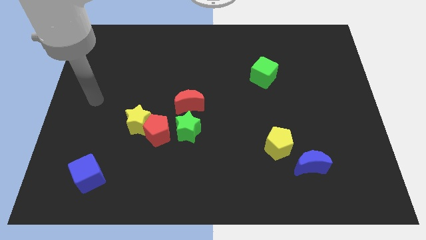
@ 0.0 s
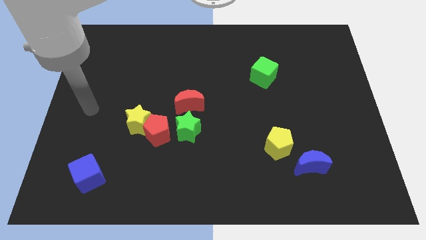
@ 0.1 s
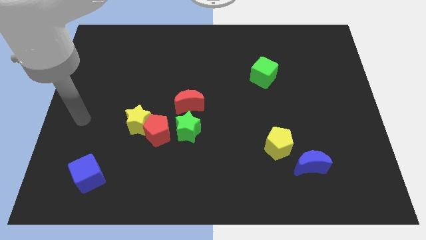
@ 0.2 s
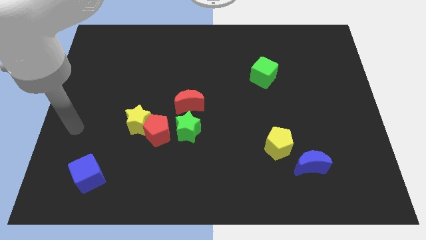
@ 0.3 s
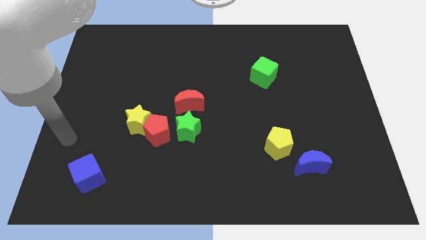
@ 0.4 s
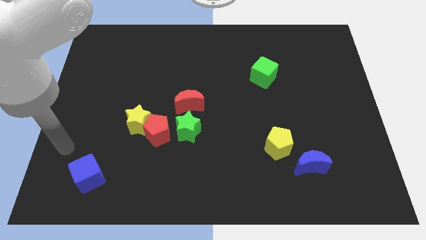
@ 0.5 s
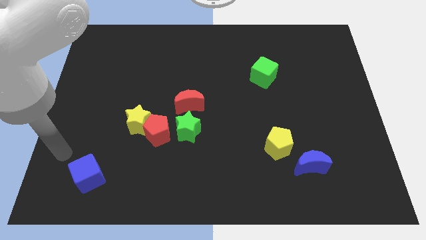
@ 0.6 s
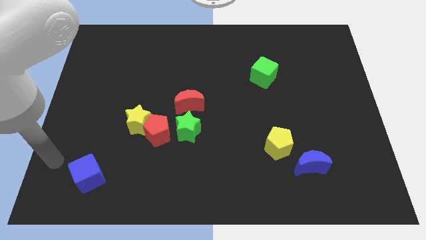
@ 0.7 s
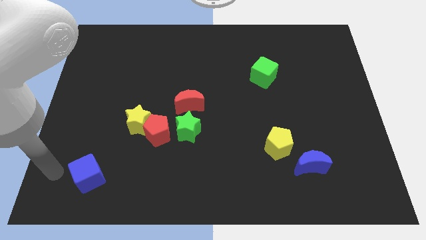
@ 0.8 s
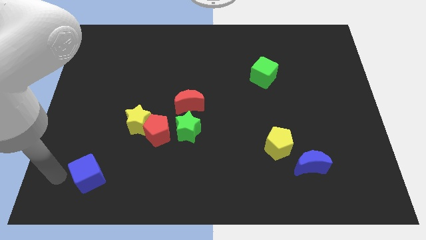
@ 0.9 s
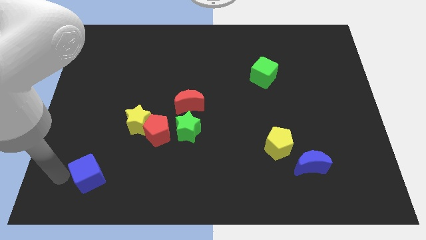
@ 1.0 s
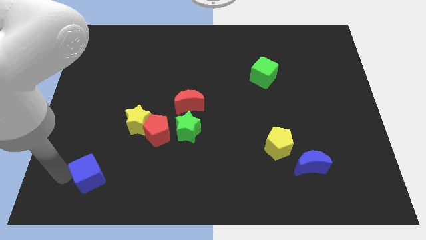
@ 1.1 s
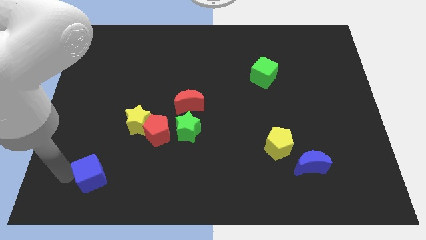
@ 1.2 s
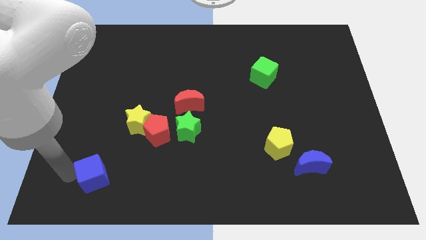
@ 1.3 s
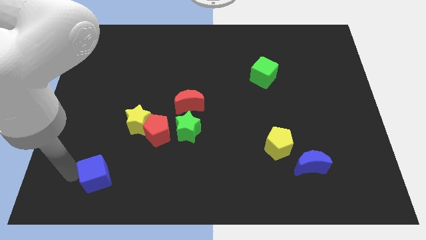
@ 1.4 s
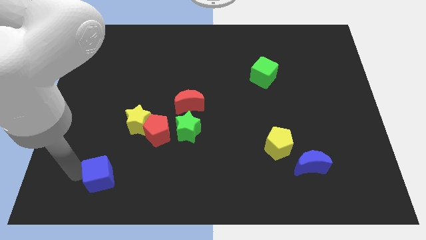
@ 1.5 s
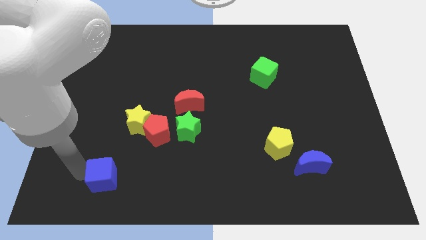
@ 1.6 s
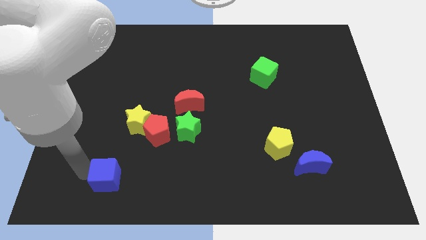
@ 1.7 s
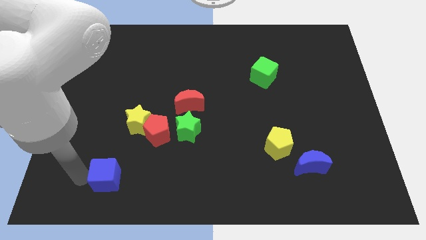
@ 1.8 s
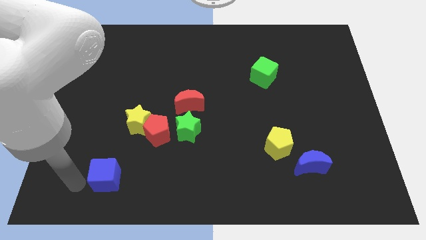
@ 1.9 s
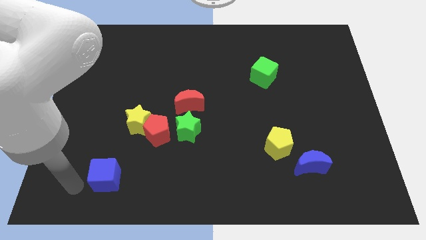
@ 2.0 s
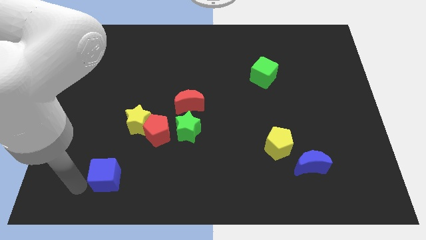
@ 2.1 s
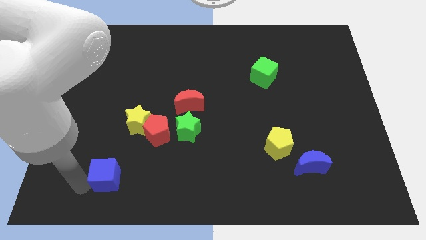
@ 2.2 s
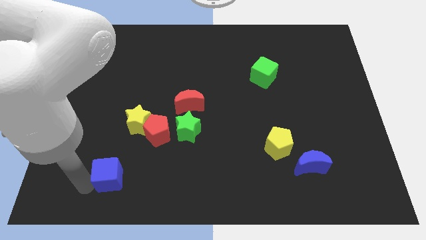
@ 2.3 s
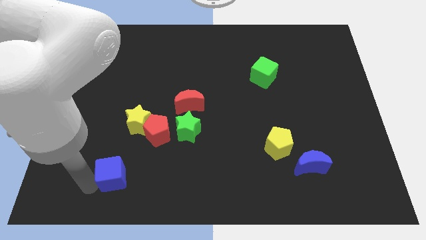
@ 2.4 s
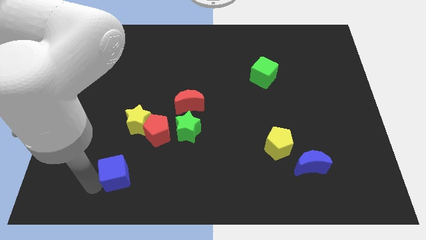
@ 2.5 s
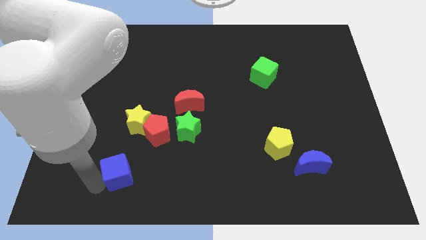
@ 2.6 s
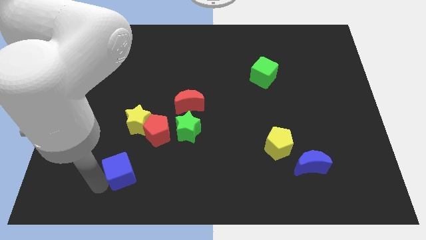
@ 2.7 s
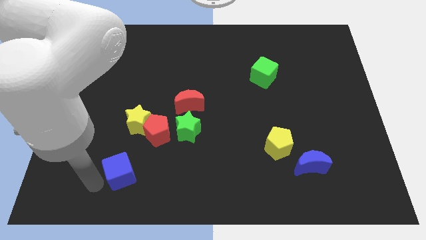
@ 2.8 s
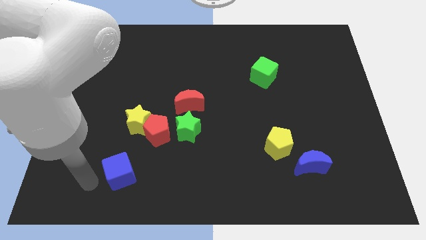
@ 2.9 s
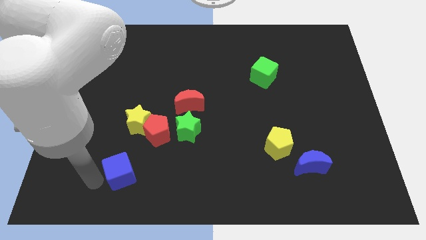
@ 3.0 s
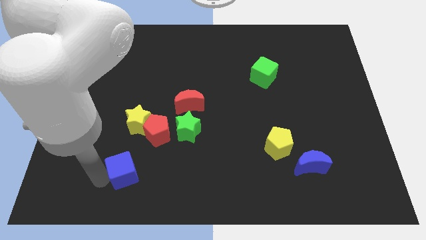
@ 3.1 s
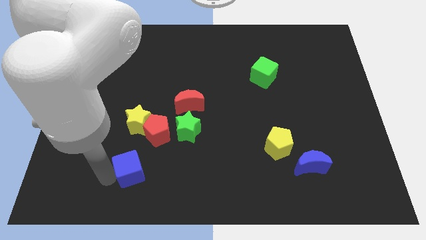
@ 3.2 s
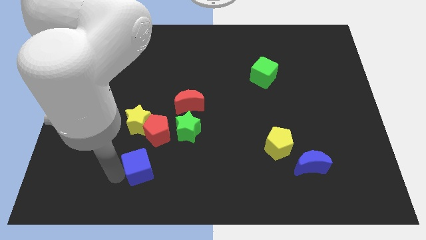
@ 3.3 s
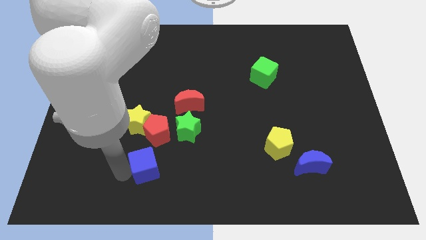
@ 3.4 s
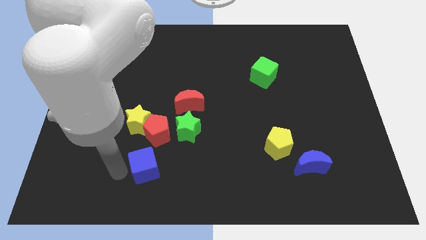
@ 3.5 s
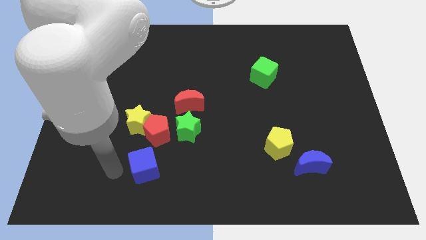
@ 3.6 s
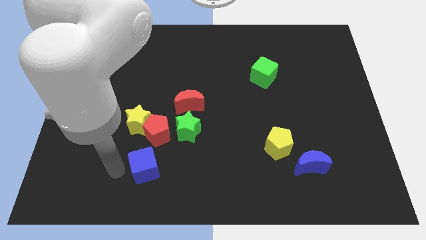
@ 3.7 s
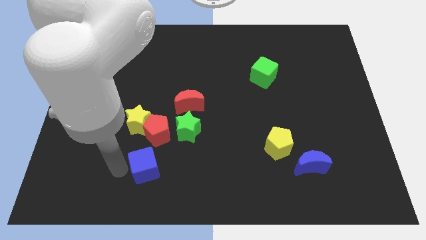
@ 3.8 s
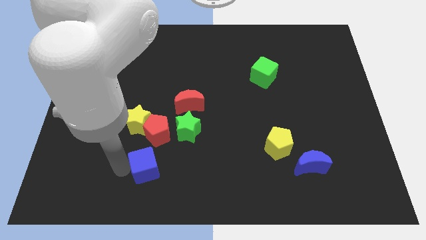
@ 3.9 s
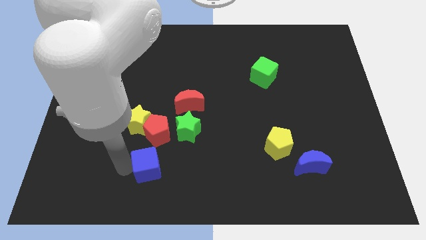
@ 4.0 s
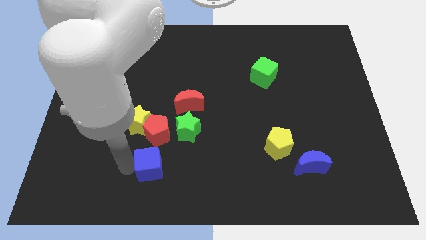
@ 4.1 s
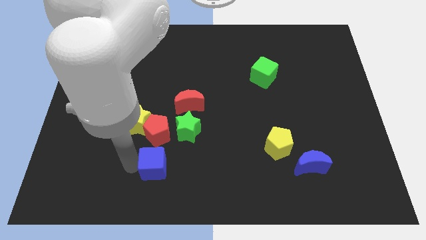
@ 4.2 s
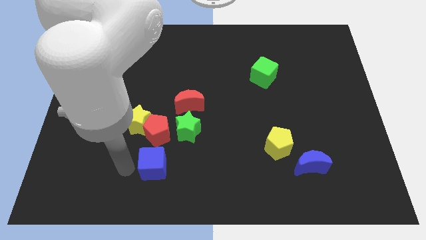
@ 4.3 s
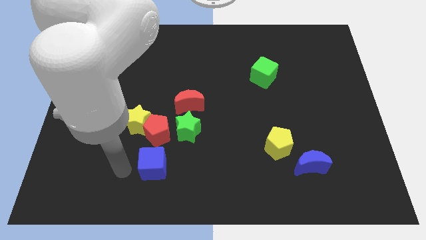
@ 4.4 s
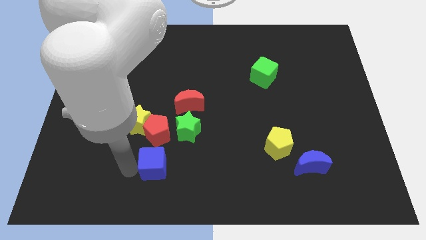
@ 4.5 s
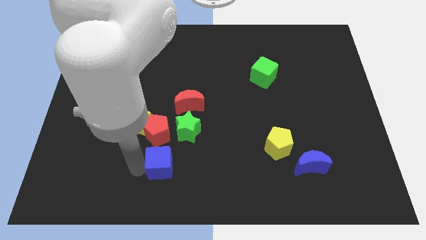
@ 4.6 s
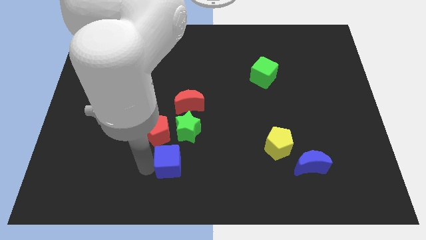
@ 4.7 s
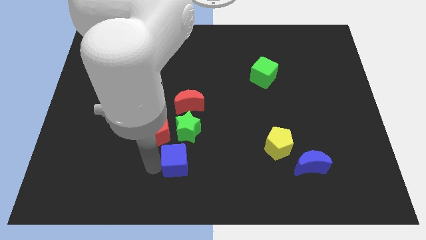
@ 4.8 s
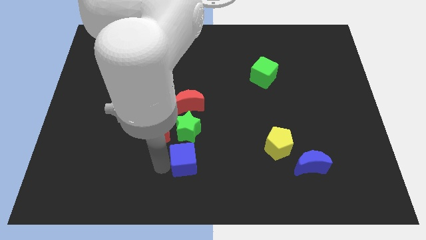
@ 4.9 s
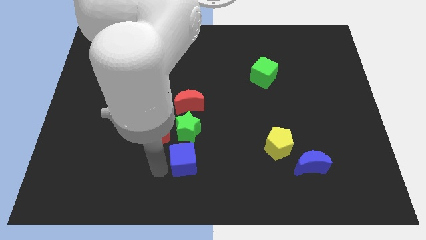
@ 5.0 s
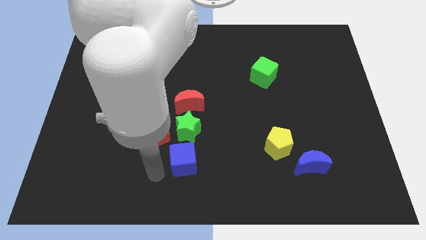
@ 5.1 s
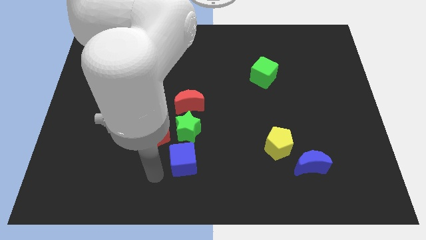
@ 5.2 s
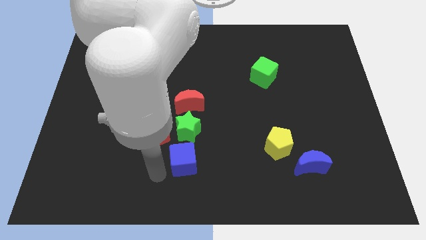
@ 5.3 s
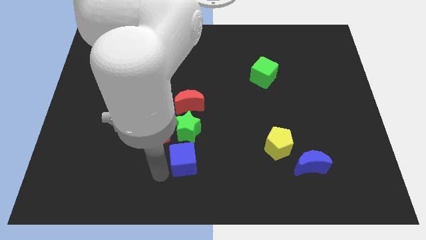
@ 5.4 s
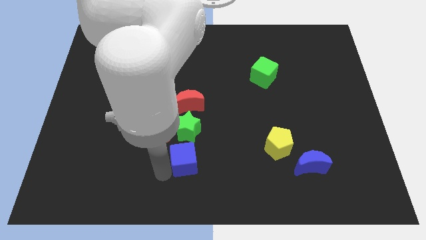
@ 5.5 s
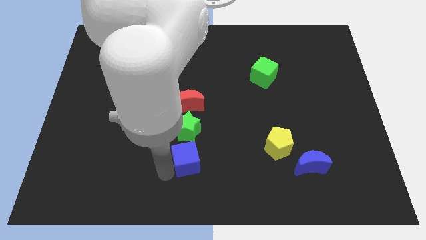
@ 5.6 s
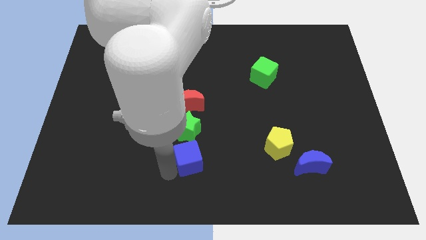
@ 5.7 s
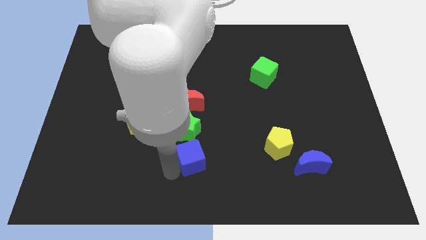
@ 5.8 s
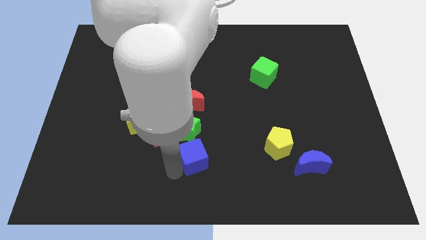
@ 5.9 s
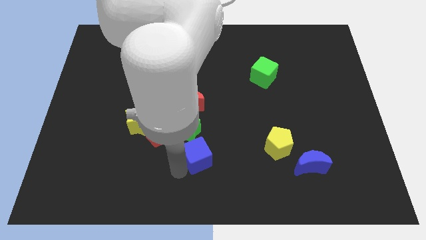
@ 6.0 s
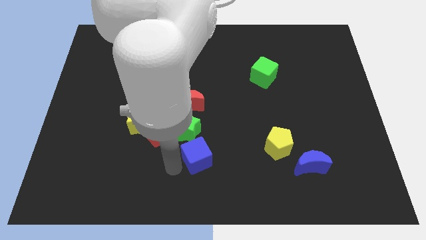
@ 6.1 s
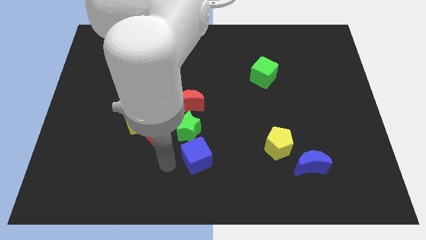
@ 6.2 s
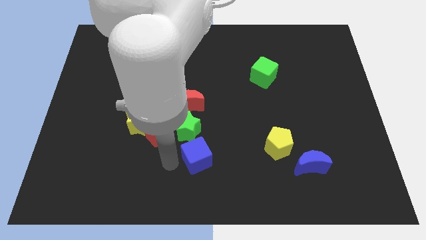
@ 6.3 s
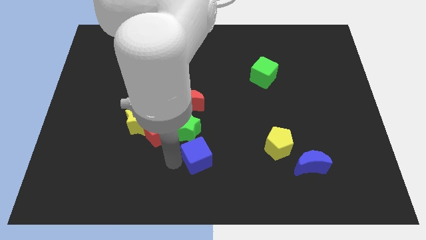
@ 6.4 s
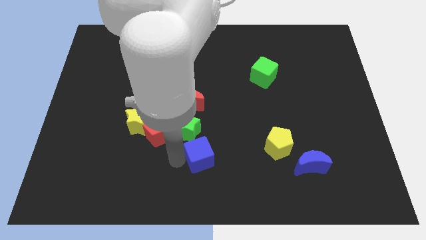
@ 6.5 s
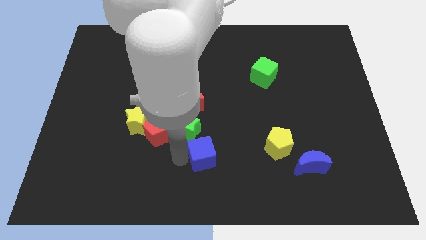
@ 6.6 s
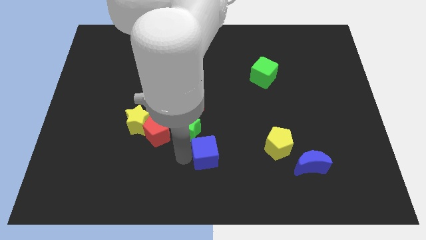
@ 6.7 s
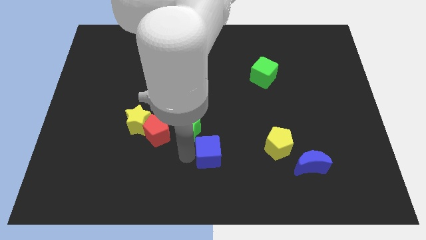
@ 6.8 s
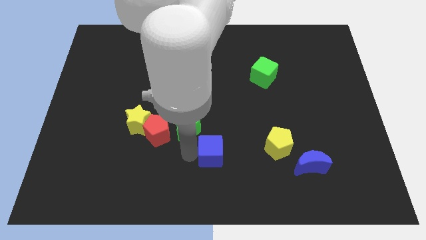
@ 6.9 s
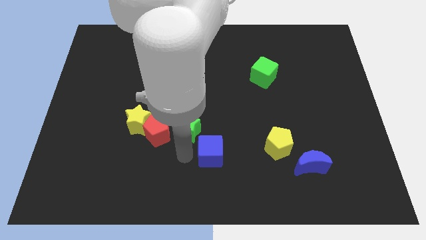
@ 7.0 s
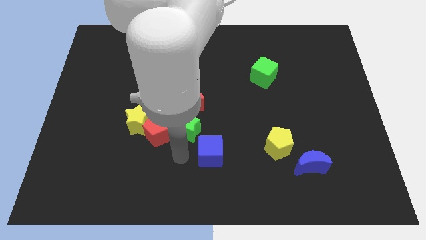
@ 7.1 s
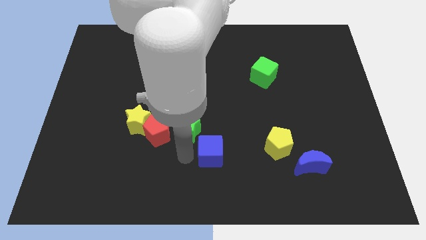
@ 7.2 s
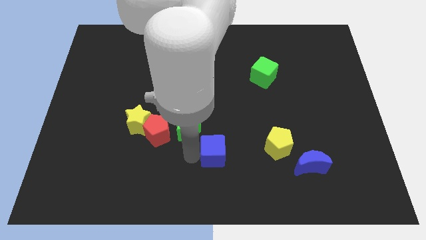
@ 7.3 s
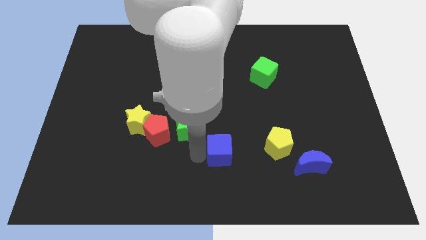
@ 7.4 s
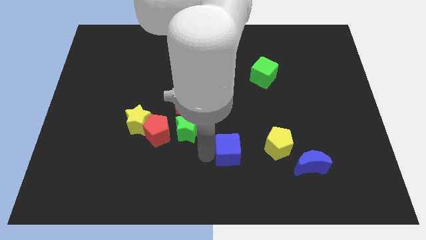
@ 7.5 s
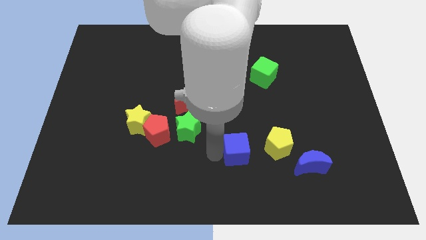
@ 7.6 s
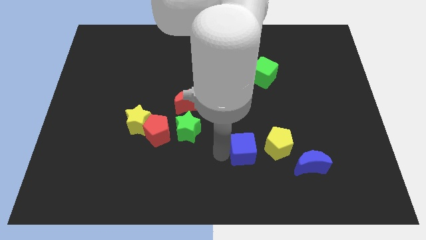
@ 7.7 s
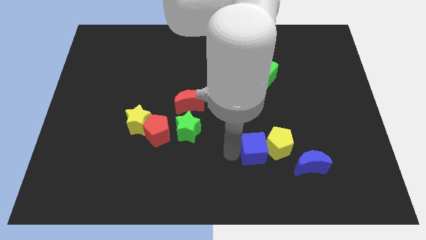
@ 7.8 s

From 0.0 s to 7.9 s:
push the blue cube next to the yellow pentagon
